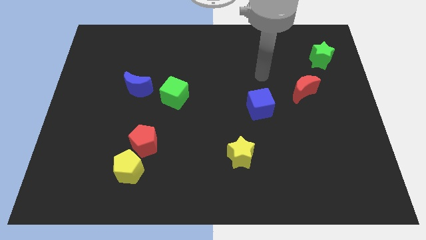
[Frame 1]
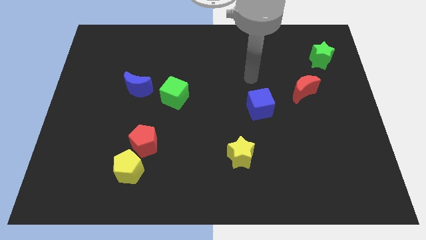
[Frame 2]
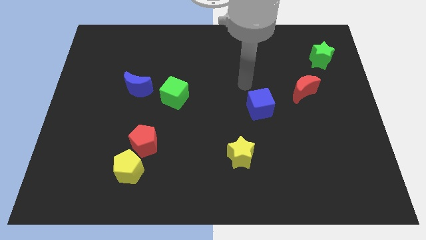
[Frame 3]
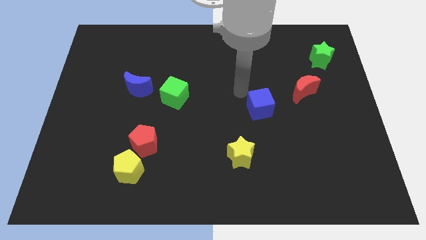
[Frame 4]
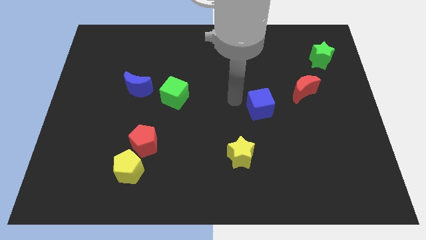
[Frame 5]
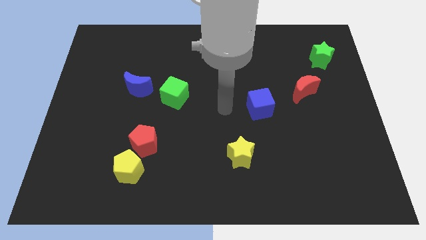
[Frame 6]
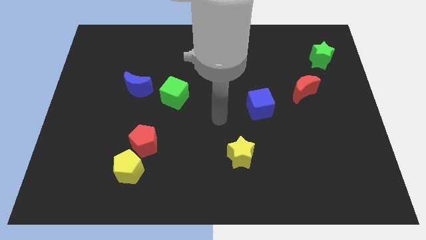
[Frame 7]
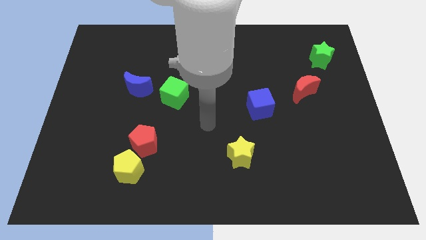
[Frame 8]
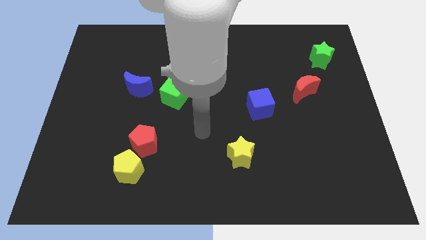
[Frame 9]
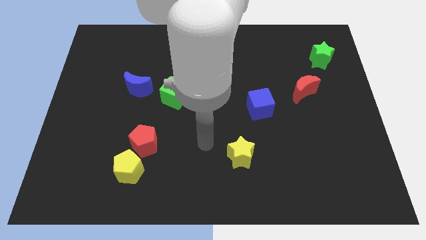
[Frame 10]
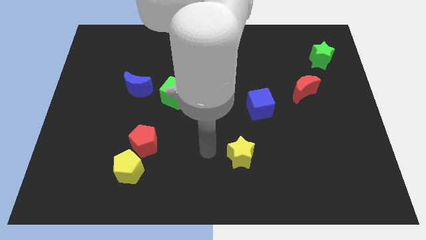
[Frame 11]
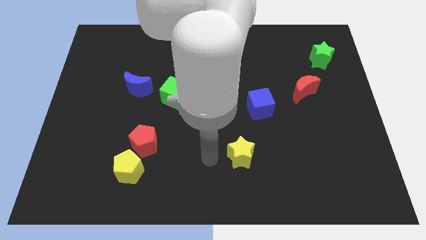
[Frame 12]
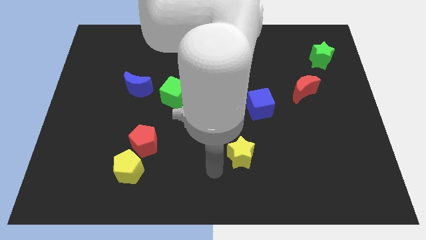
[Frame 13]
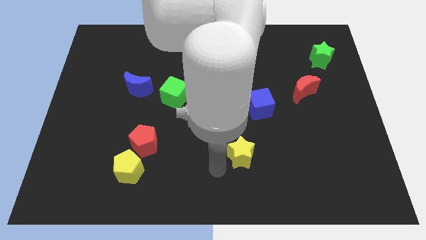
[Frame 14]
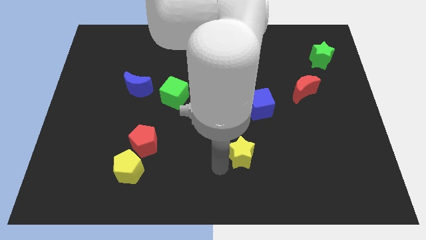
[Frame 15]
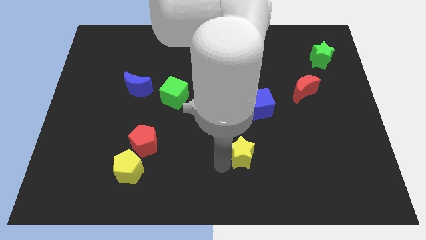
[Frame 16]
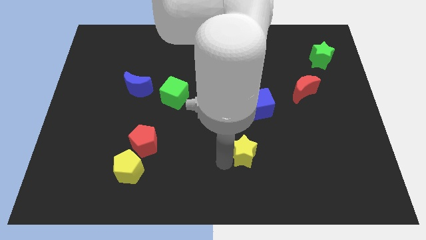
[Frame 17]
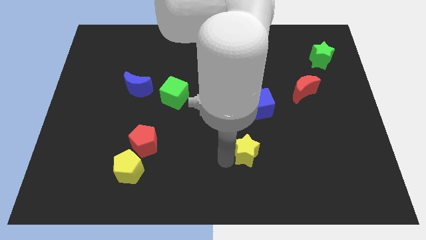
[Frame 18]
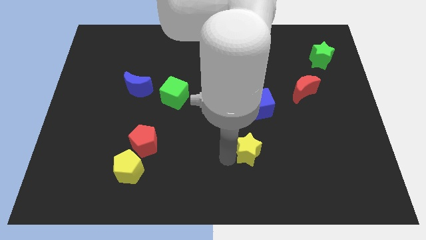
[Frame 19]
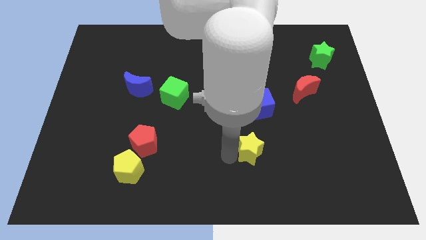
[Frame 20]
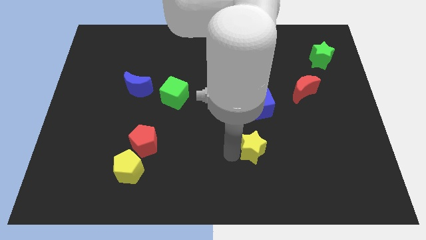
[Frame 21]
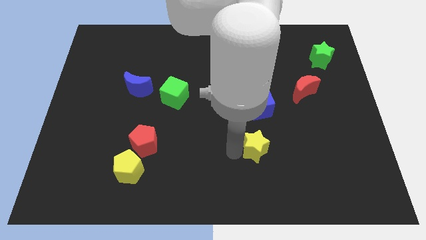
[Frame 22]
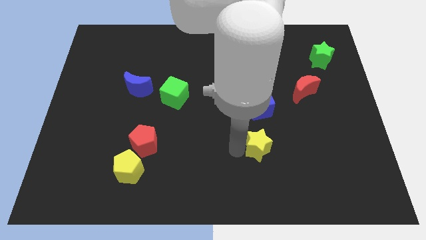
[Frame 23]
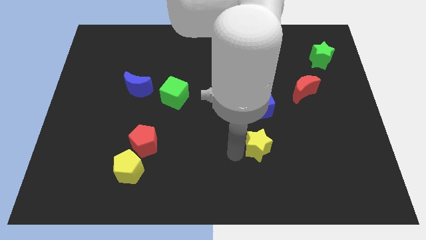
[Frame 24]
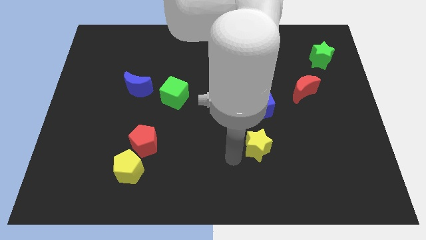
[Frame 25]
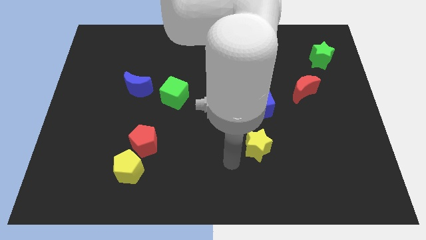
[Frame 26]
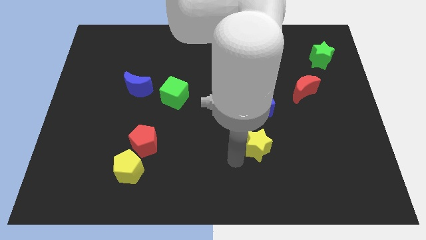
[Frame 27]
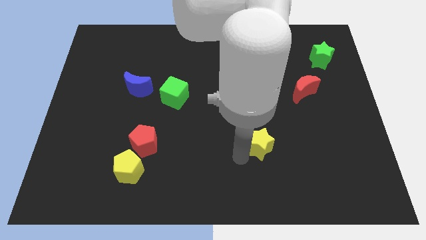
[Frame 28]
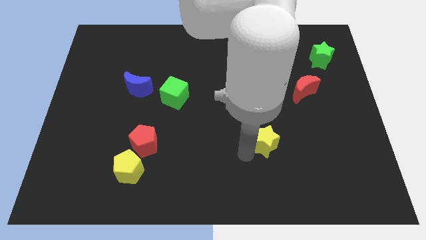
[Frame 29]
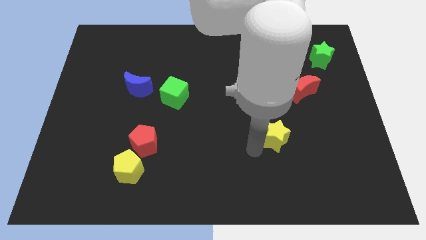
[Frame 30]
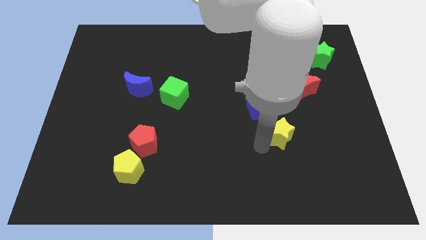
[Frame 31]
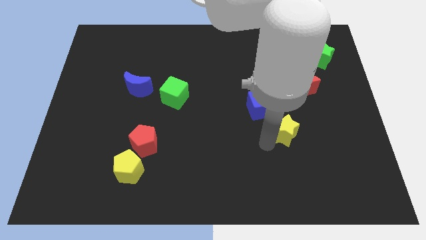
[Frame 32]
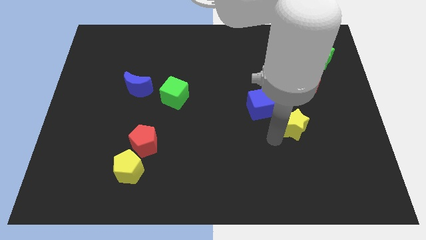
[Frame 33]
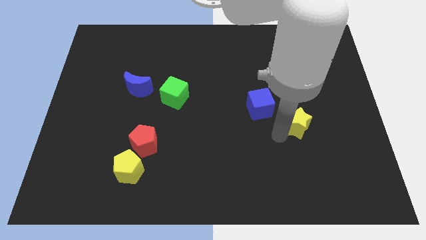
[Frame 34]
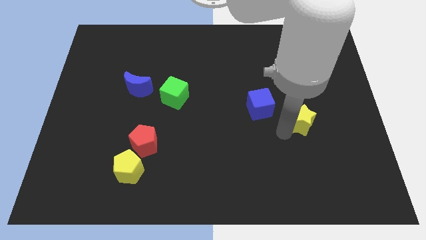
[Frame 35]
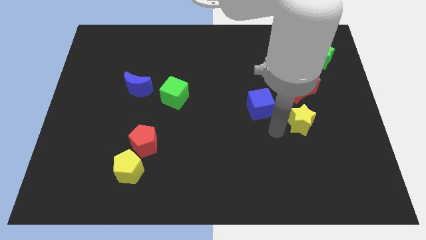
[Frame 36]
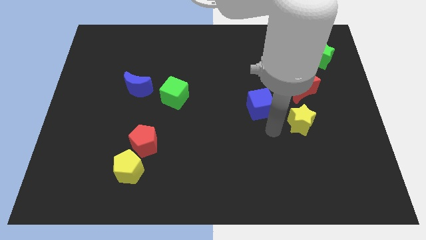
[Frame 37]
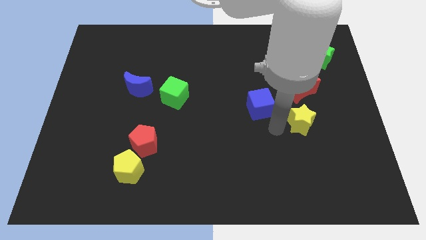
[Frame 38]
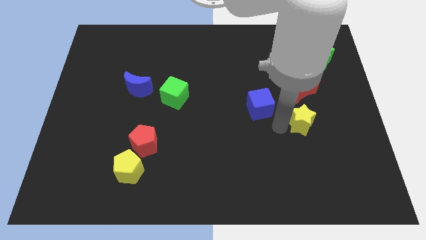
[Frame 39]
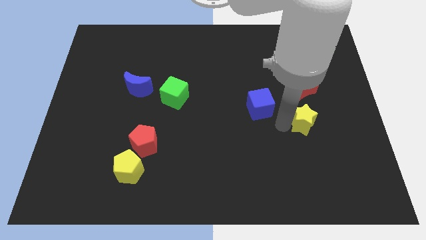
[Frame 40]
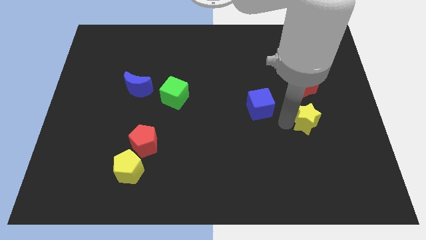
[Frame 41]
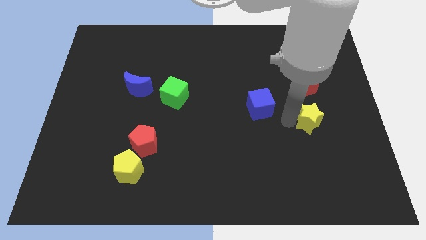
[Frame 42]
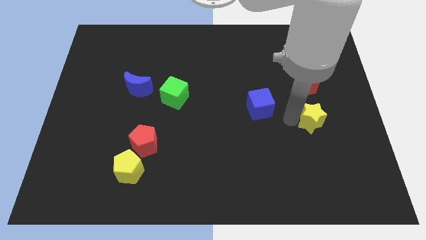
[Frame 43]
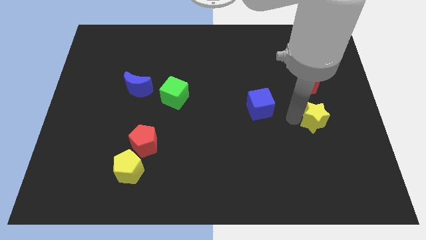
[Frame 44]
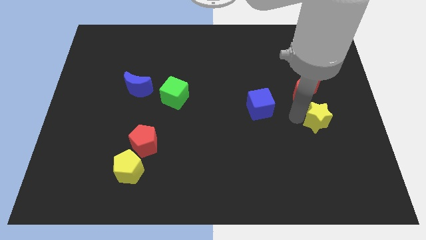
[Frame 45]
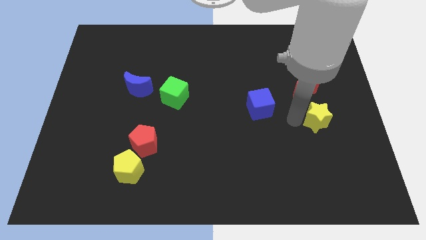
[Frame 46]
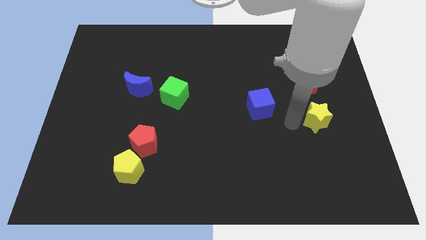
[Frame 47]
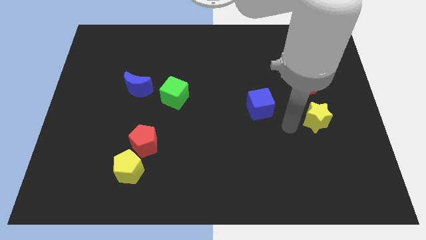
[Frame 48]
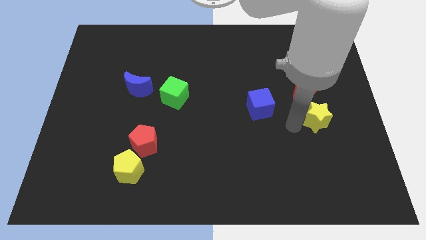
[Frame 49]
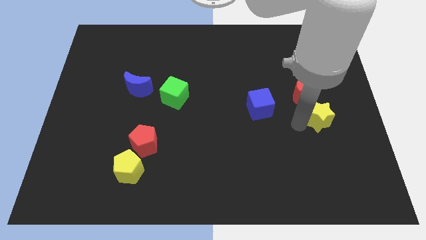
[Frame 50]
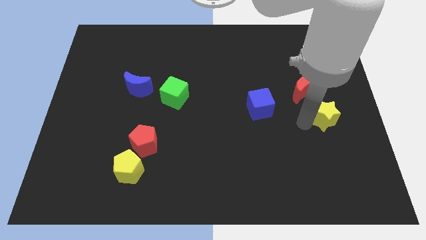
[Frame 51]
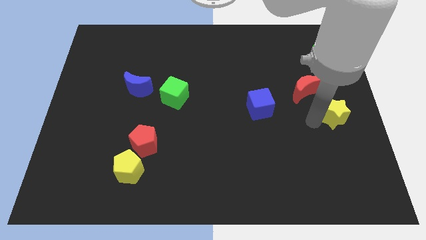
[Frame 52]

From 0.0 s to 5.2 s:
move the yellow star to the right side of the board

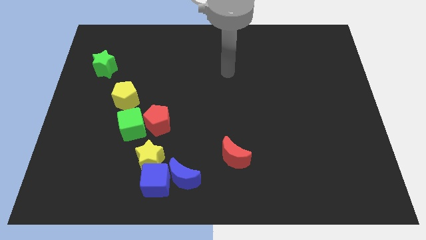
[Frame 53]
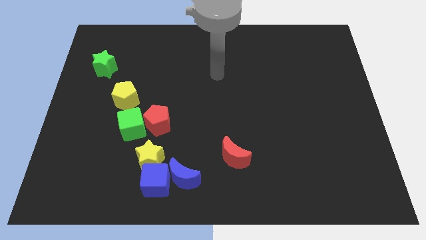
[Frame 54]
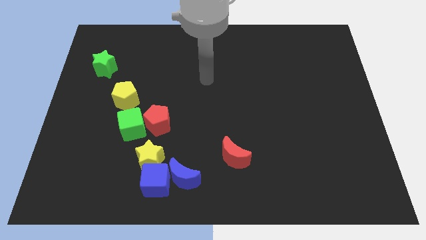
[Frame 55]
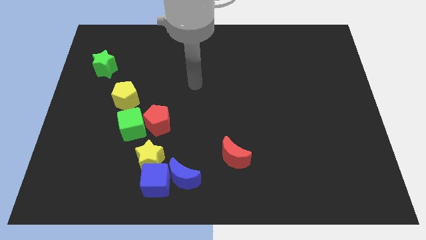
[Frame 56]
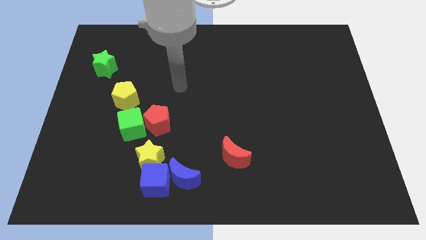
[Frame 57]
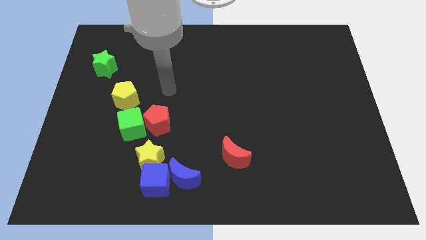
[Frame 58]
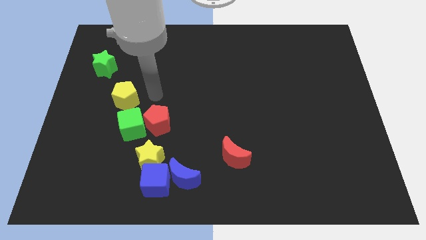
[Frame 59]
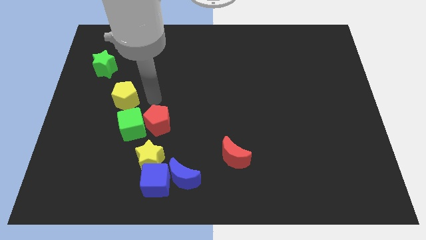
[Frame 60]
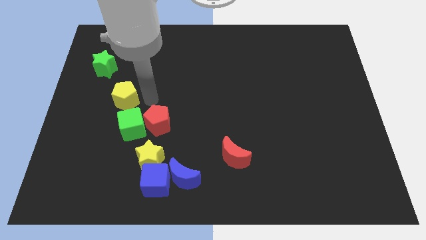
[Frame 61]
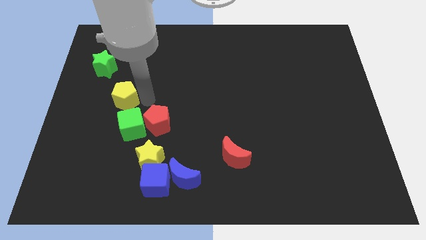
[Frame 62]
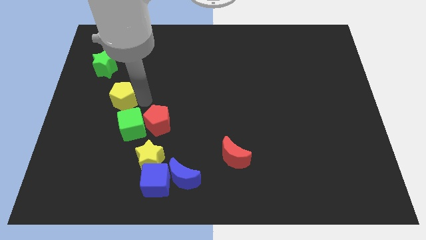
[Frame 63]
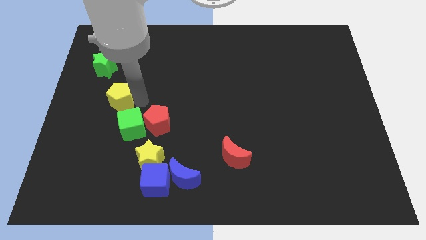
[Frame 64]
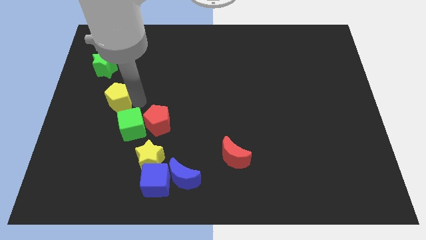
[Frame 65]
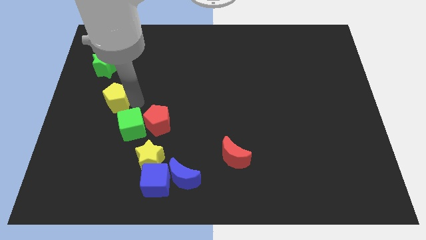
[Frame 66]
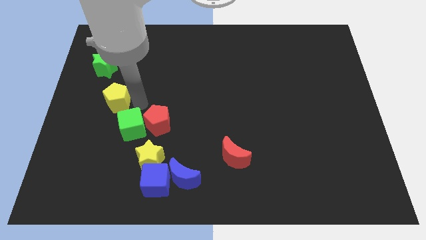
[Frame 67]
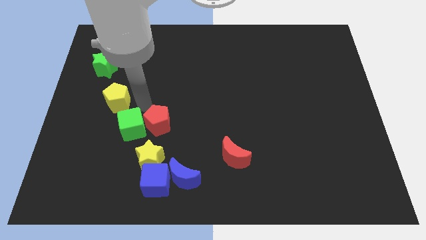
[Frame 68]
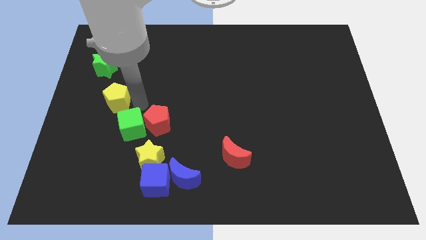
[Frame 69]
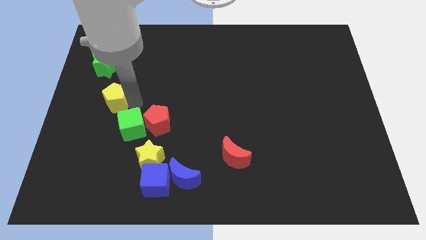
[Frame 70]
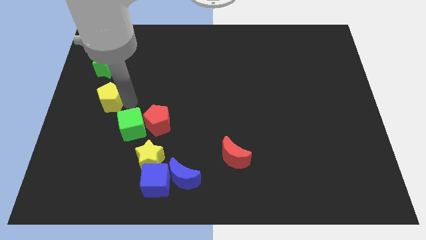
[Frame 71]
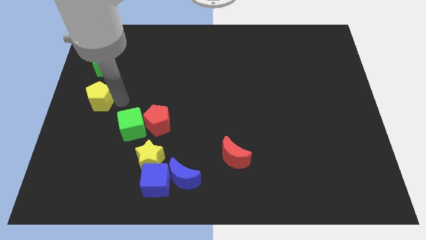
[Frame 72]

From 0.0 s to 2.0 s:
put the yellow pentagon to the left side of the board

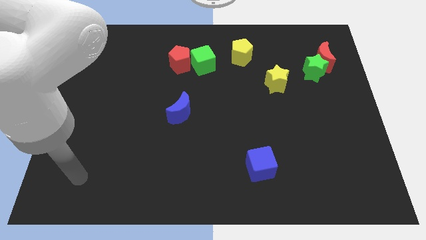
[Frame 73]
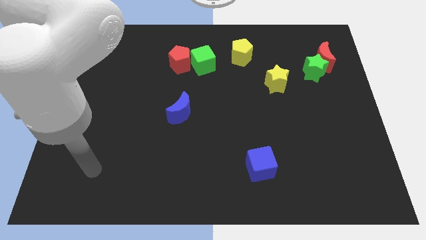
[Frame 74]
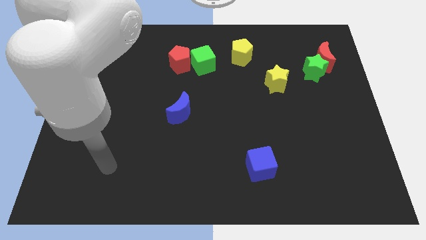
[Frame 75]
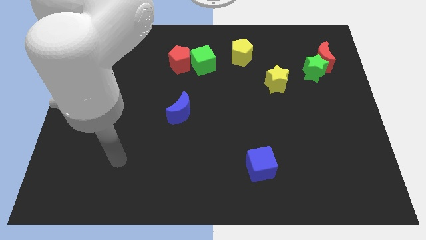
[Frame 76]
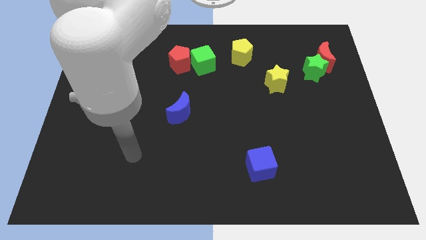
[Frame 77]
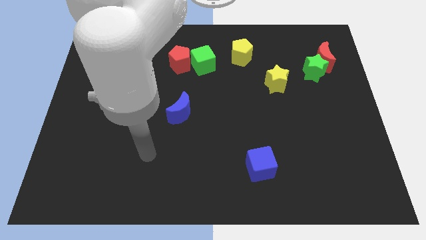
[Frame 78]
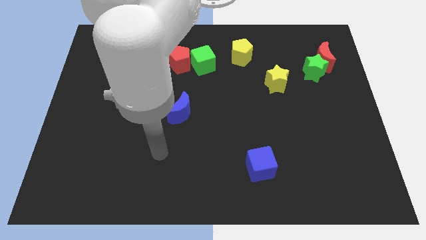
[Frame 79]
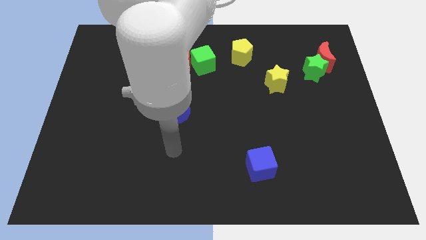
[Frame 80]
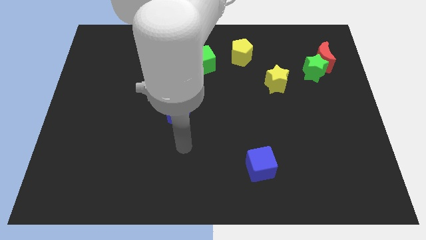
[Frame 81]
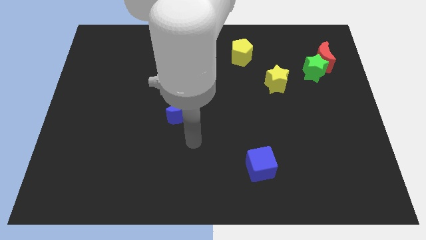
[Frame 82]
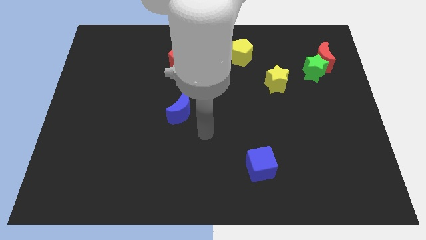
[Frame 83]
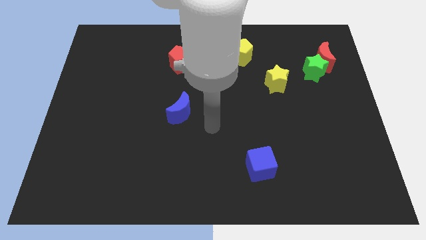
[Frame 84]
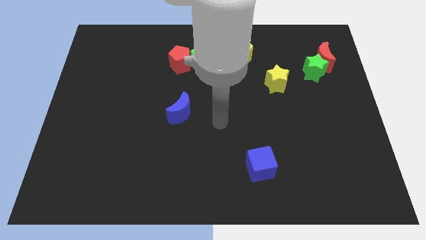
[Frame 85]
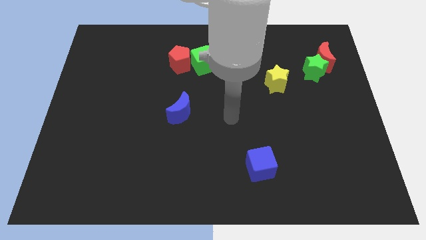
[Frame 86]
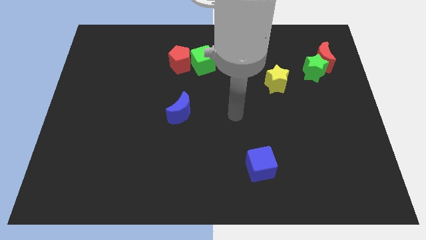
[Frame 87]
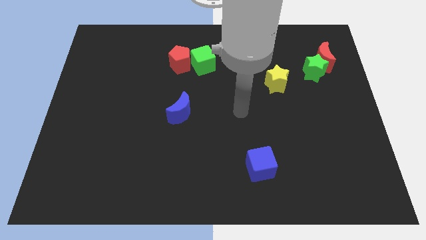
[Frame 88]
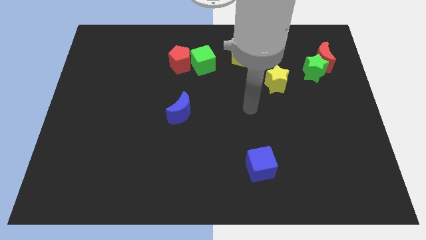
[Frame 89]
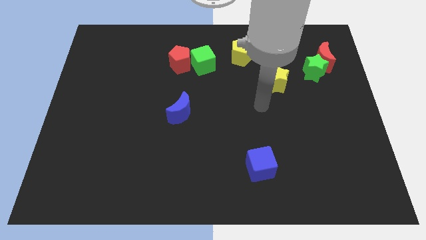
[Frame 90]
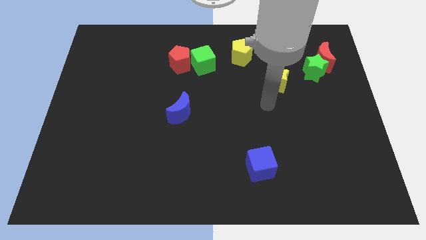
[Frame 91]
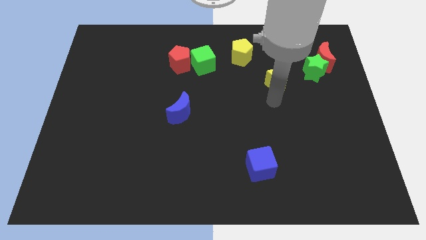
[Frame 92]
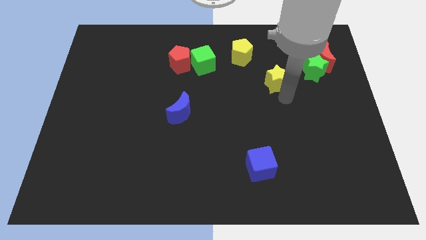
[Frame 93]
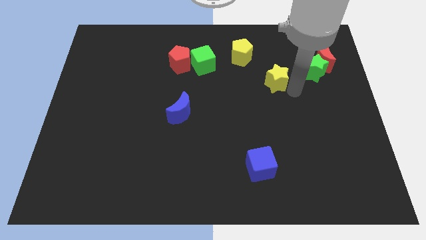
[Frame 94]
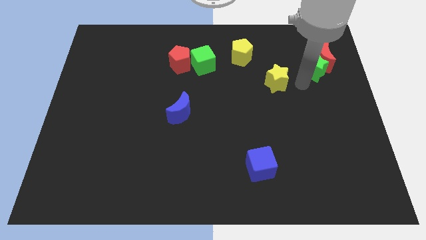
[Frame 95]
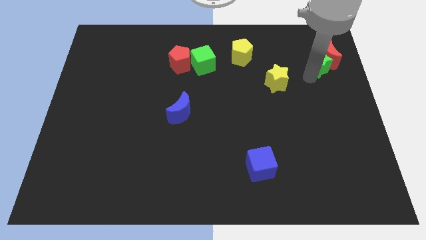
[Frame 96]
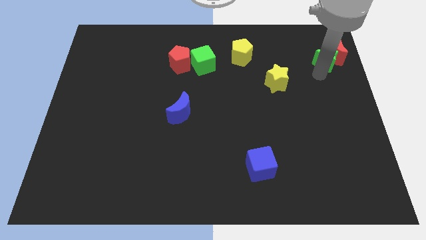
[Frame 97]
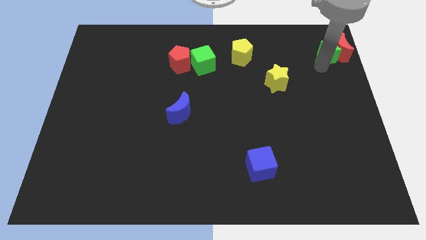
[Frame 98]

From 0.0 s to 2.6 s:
slide the red moon to the upper right corner
